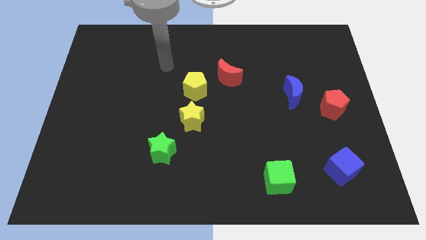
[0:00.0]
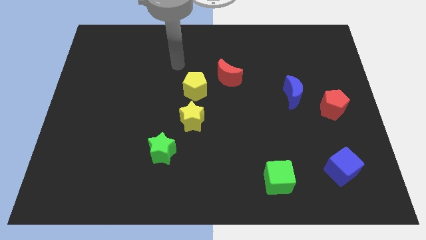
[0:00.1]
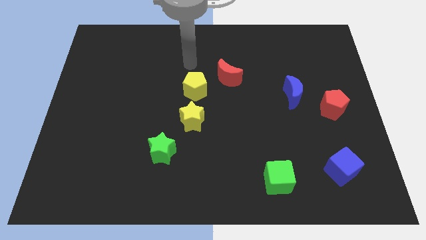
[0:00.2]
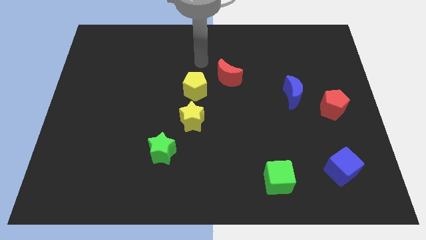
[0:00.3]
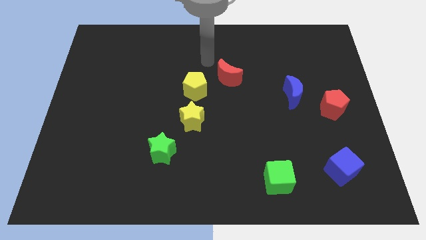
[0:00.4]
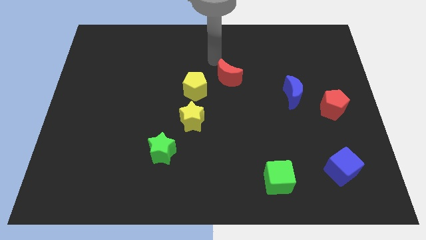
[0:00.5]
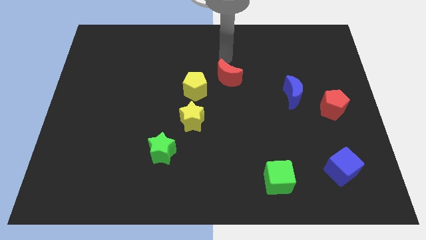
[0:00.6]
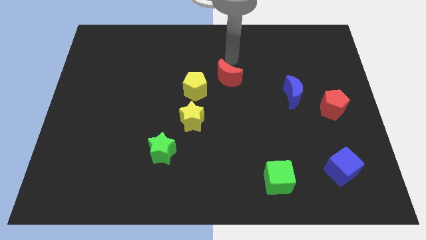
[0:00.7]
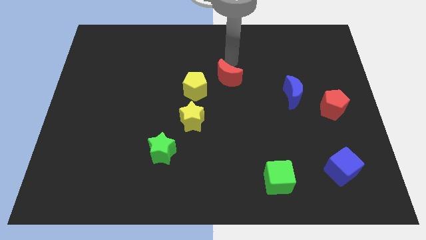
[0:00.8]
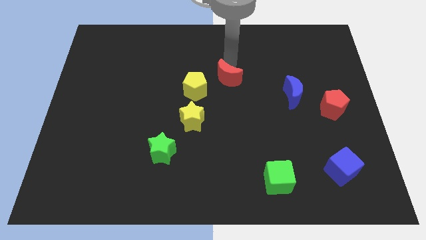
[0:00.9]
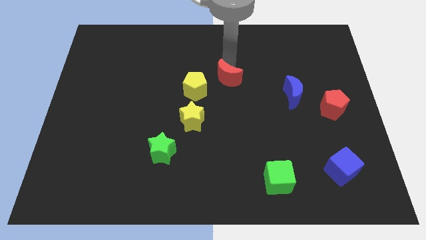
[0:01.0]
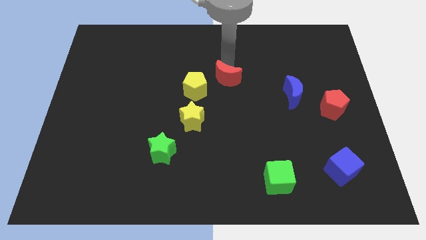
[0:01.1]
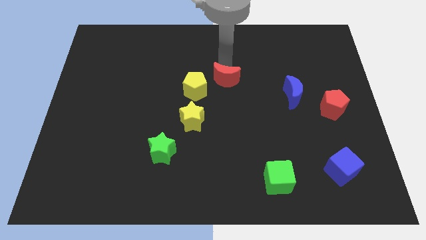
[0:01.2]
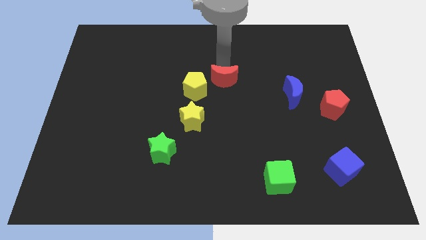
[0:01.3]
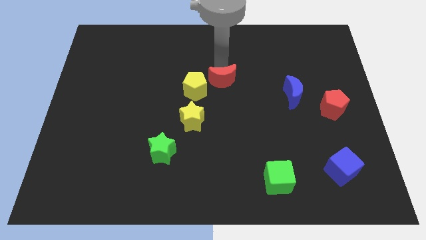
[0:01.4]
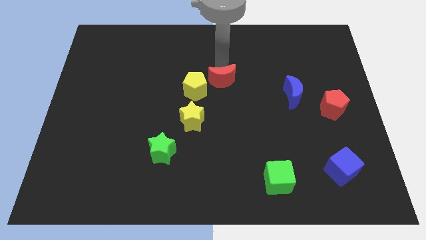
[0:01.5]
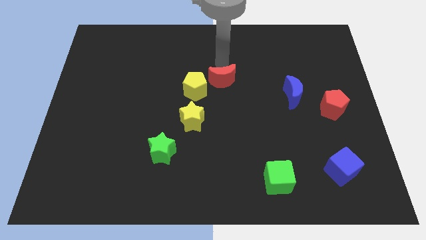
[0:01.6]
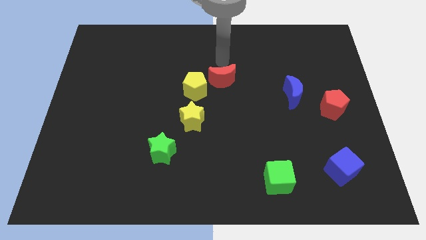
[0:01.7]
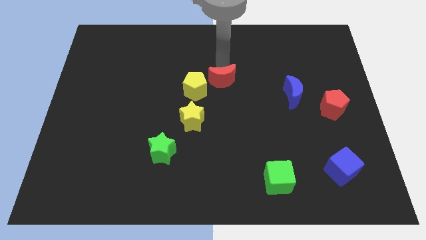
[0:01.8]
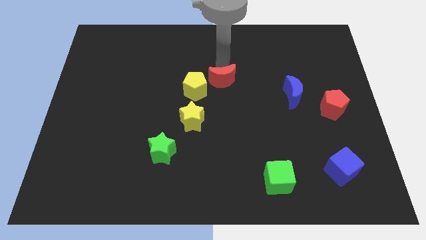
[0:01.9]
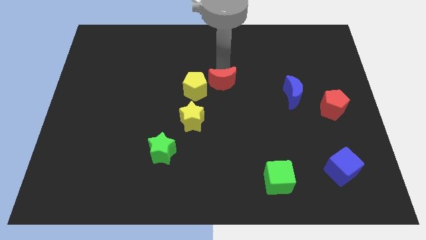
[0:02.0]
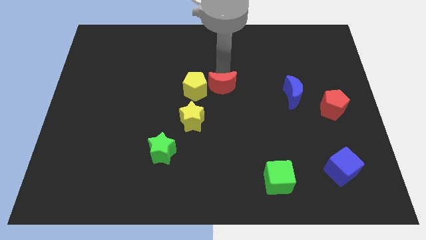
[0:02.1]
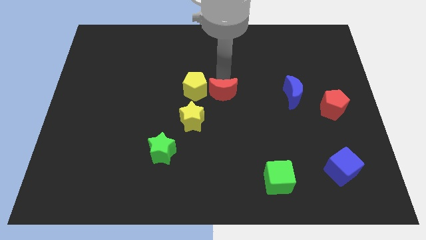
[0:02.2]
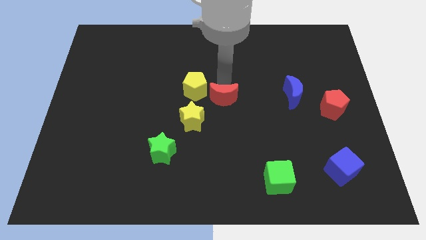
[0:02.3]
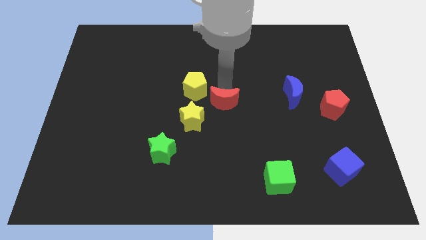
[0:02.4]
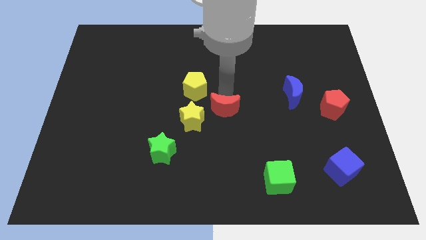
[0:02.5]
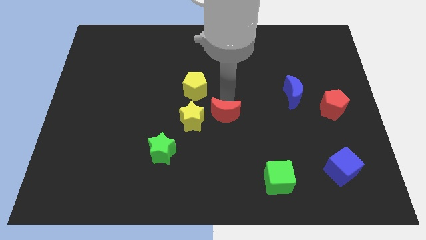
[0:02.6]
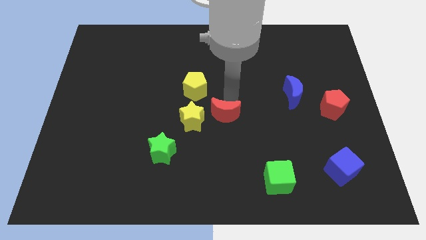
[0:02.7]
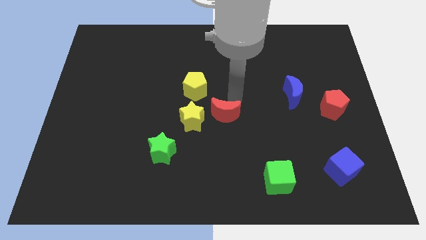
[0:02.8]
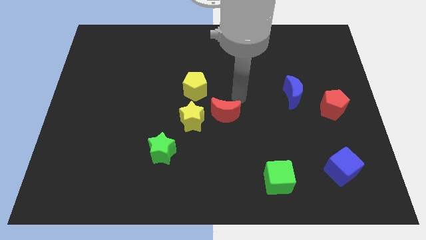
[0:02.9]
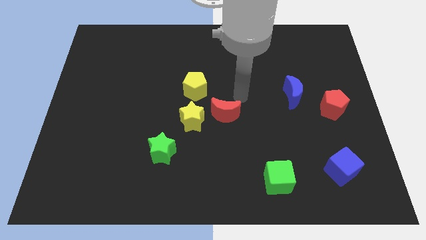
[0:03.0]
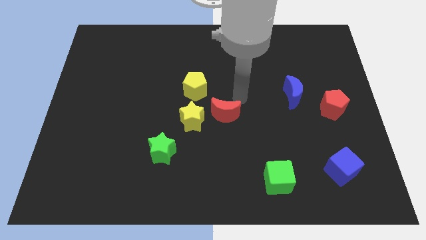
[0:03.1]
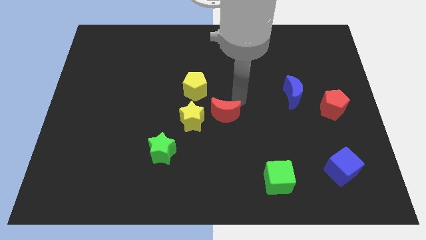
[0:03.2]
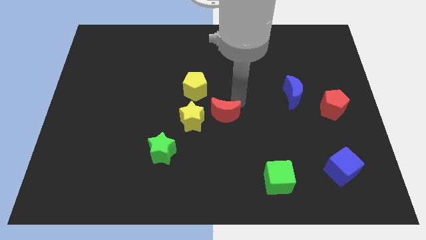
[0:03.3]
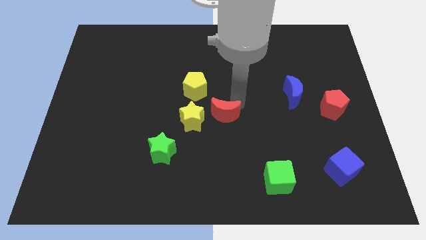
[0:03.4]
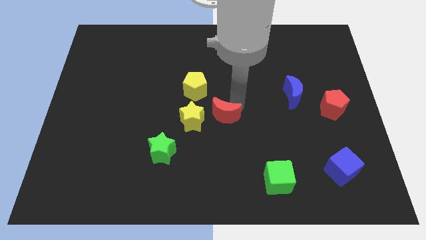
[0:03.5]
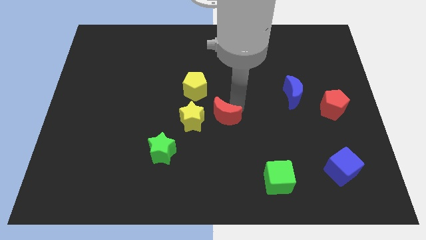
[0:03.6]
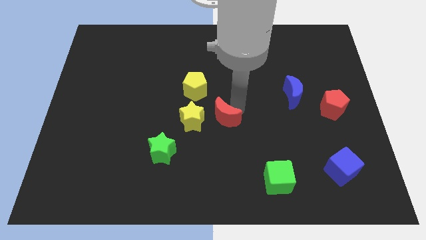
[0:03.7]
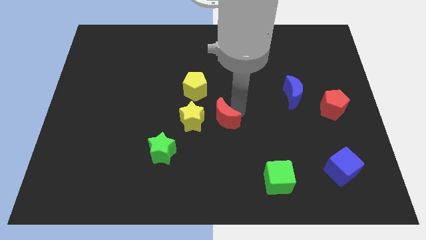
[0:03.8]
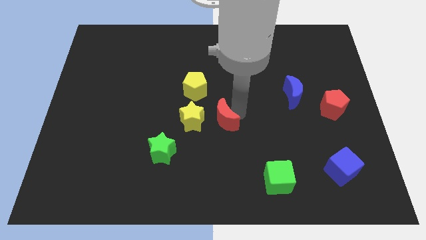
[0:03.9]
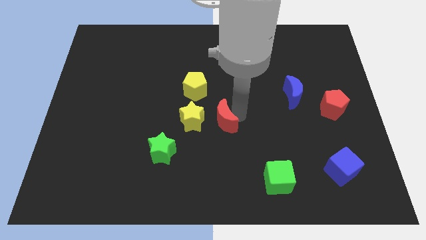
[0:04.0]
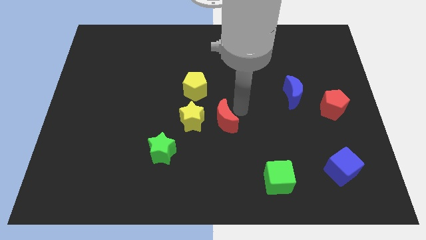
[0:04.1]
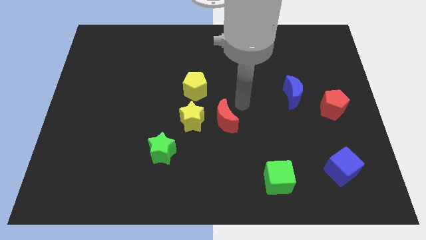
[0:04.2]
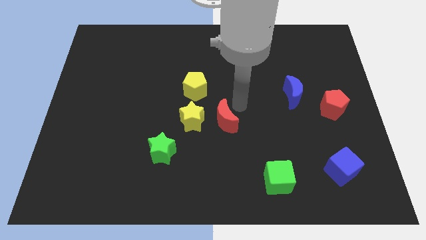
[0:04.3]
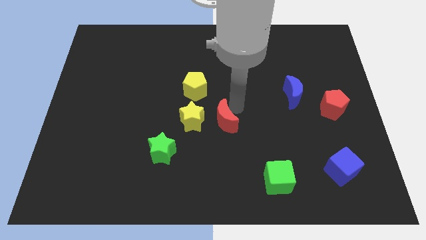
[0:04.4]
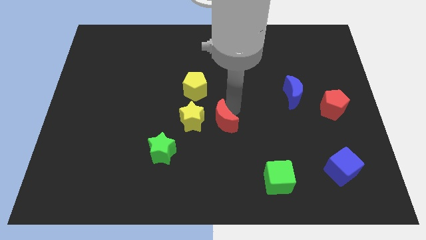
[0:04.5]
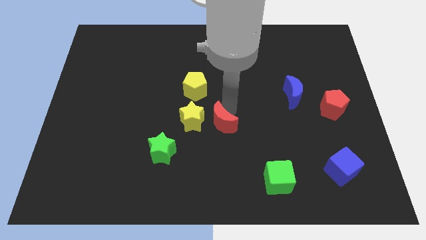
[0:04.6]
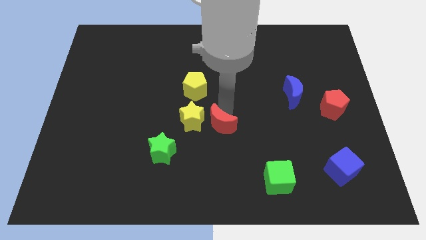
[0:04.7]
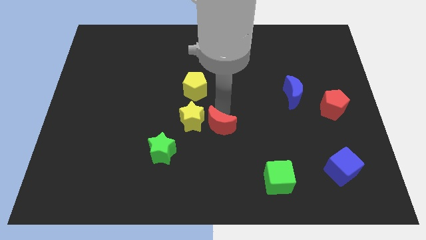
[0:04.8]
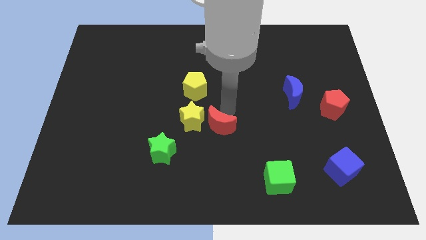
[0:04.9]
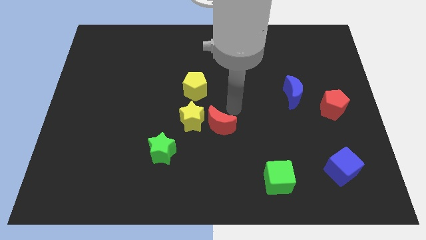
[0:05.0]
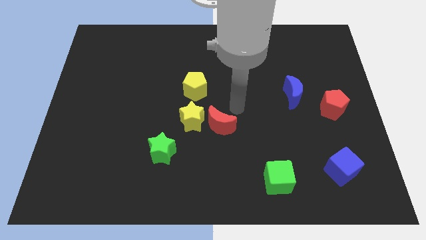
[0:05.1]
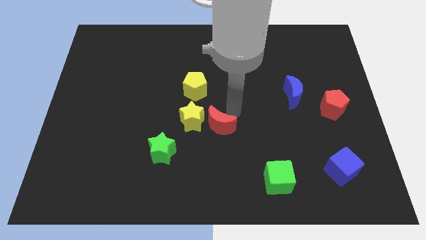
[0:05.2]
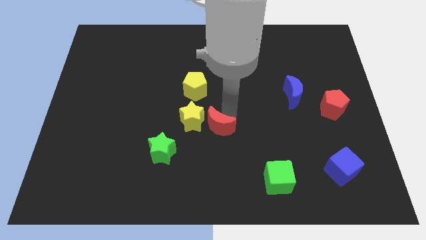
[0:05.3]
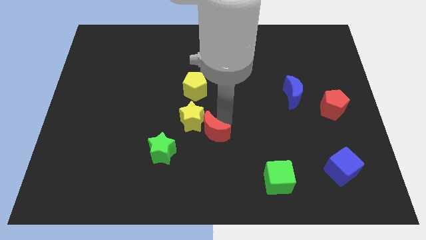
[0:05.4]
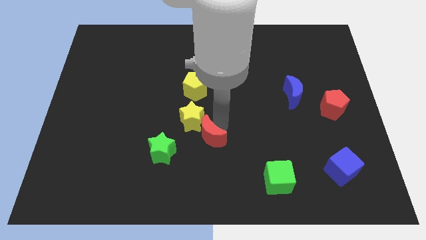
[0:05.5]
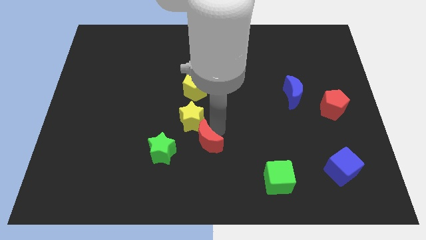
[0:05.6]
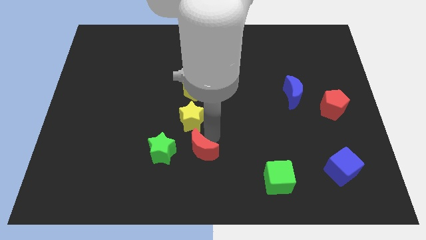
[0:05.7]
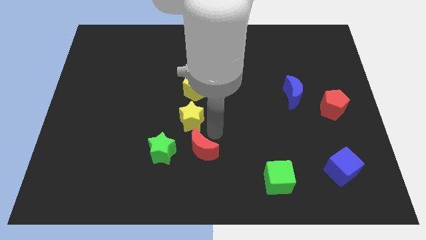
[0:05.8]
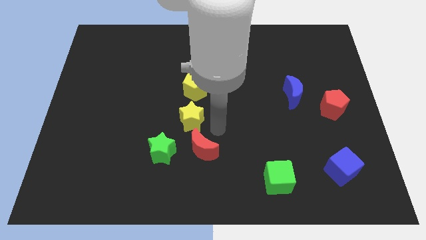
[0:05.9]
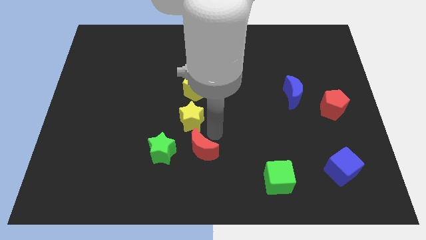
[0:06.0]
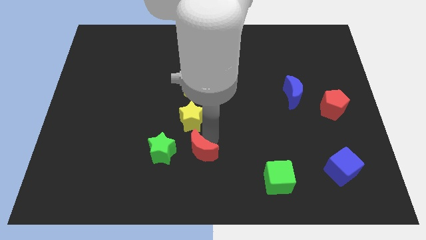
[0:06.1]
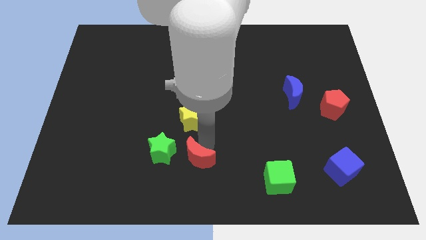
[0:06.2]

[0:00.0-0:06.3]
put the red moon to the bottom right of the green star
